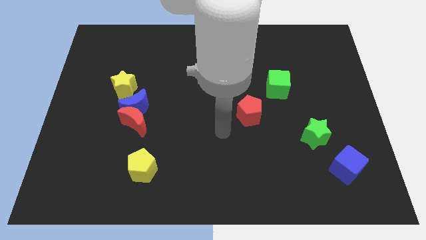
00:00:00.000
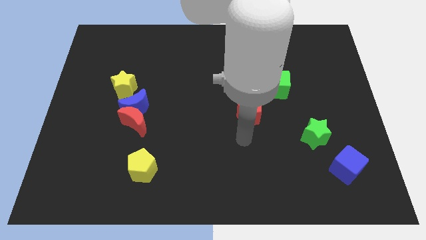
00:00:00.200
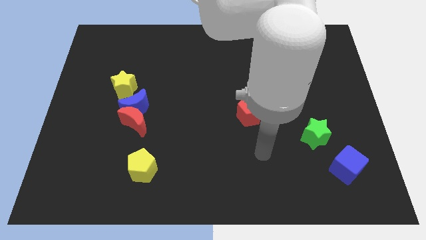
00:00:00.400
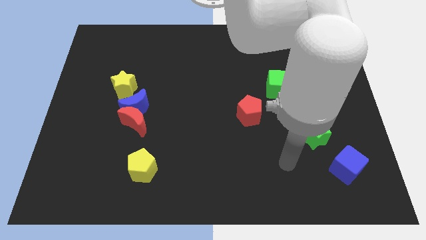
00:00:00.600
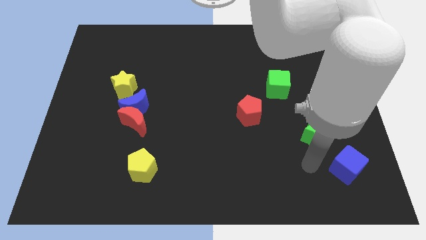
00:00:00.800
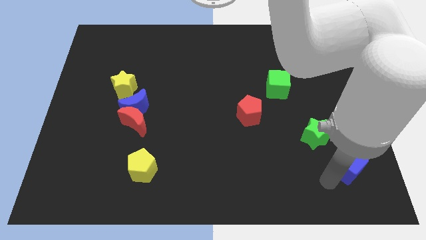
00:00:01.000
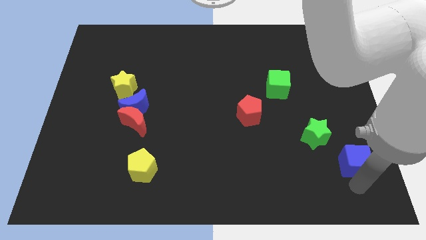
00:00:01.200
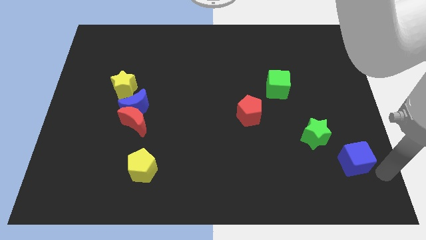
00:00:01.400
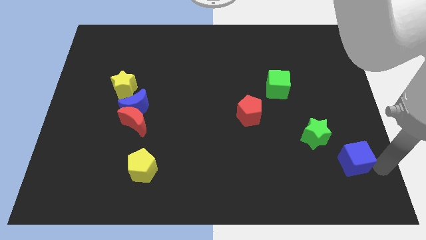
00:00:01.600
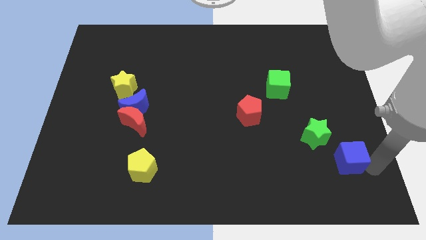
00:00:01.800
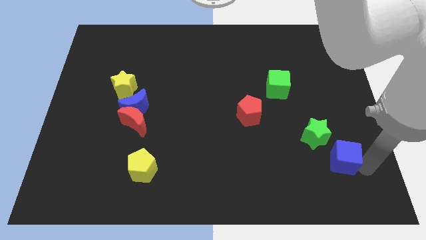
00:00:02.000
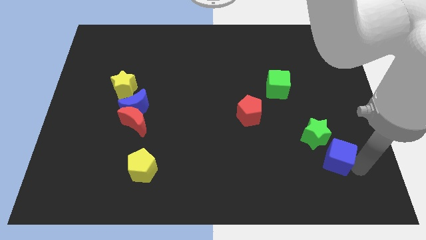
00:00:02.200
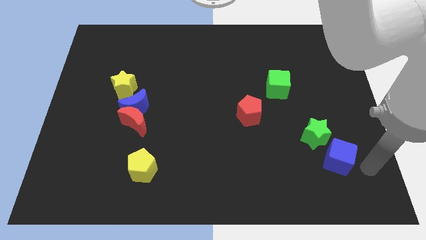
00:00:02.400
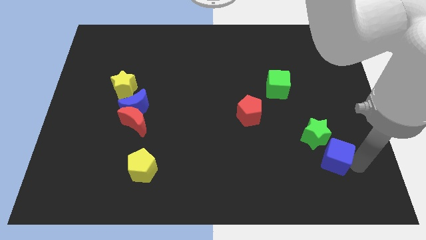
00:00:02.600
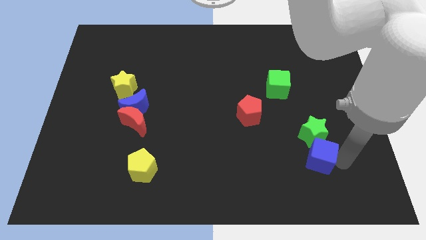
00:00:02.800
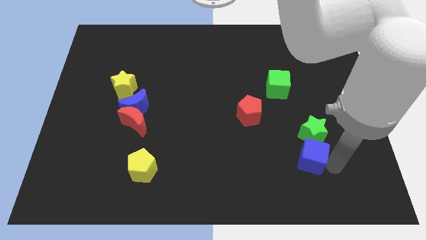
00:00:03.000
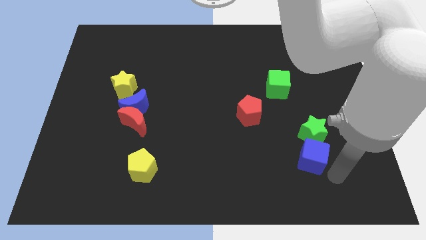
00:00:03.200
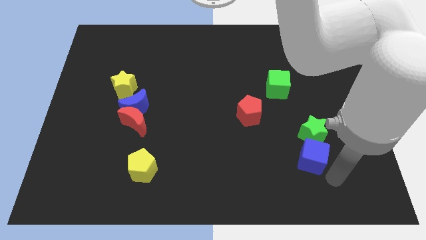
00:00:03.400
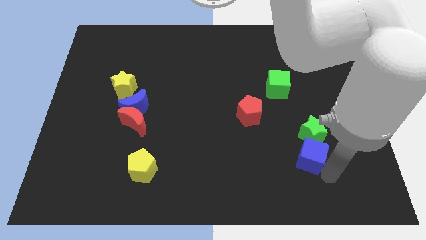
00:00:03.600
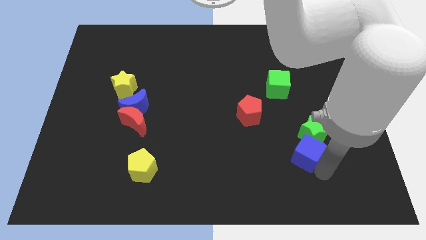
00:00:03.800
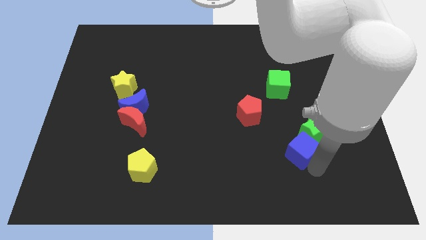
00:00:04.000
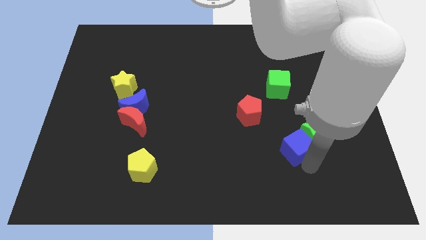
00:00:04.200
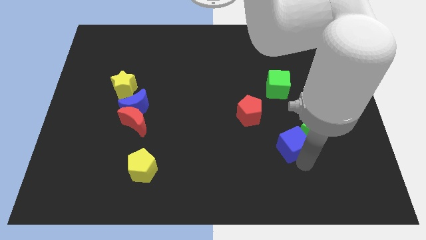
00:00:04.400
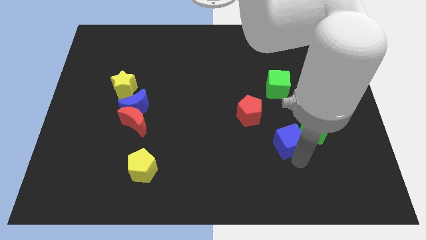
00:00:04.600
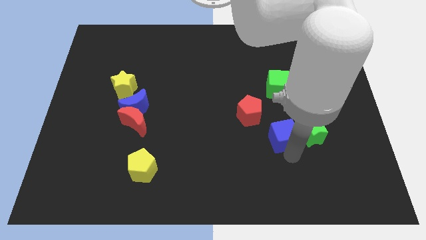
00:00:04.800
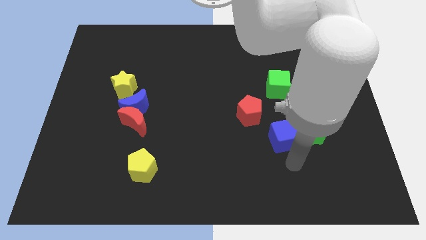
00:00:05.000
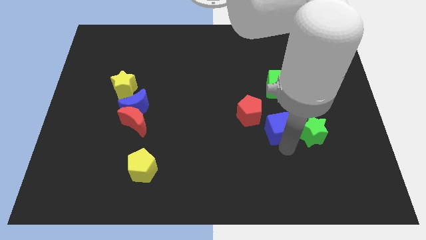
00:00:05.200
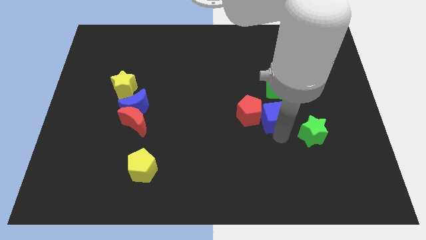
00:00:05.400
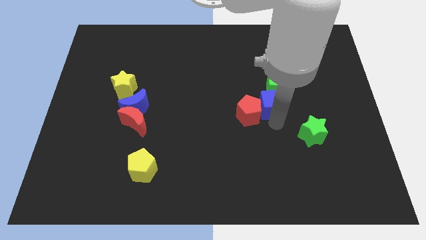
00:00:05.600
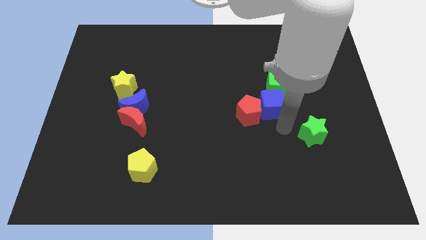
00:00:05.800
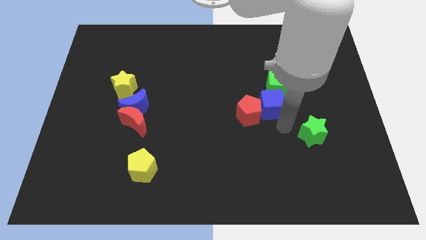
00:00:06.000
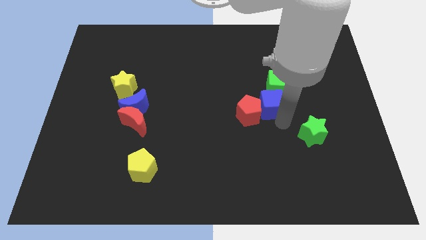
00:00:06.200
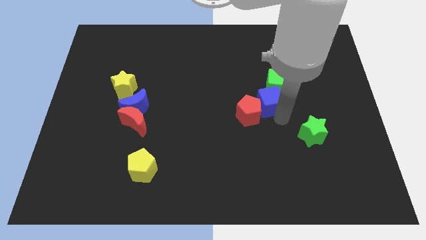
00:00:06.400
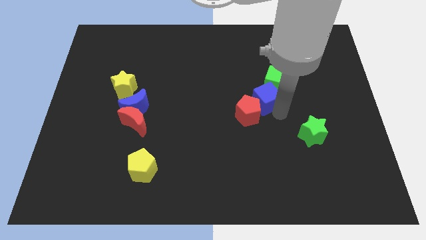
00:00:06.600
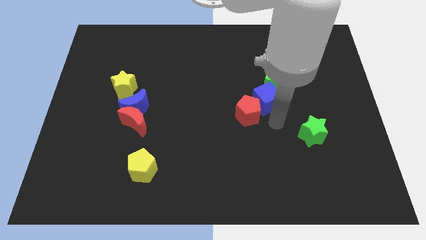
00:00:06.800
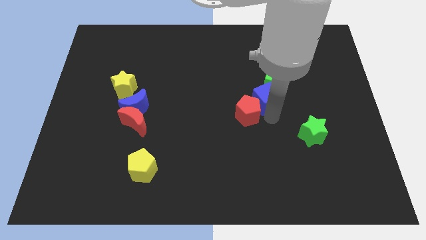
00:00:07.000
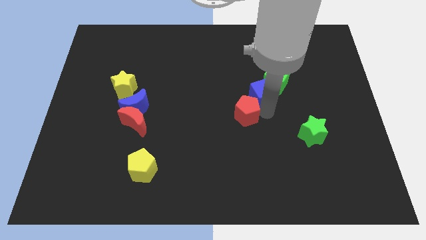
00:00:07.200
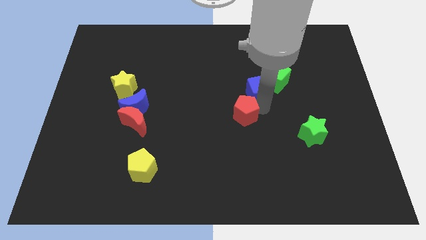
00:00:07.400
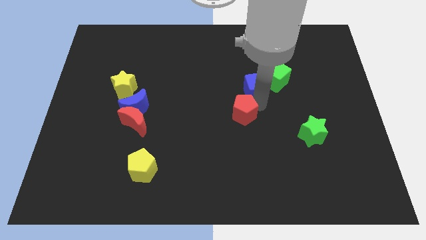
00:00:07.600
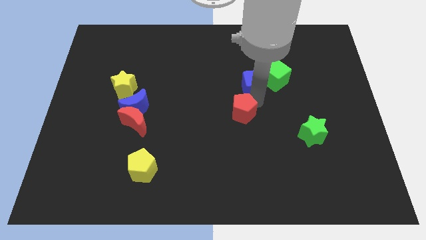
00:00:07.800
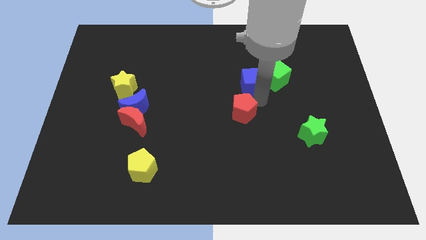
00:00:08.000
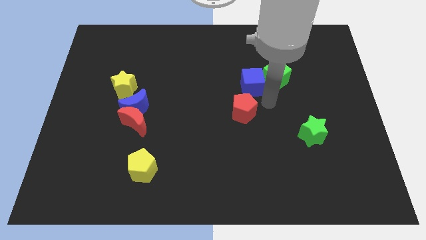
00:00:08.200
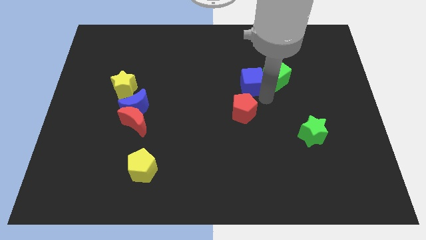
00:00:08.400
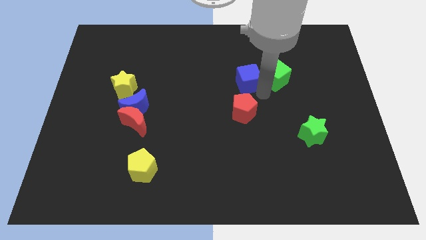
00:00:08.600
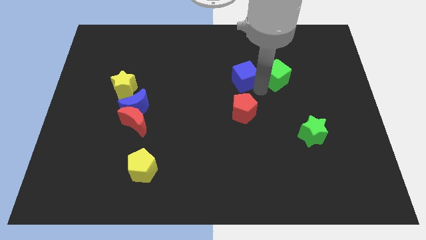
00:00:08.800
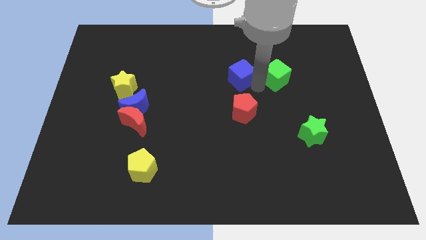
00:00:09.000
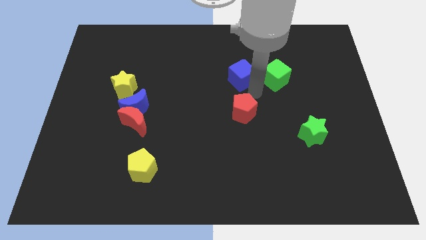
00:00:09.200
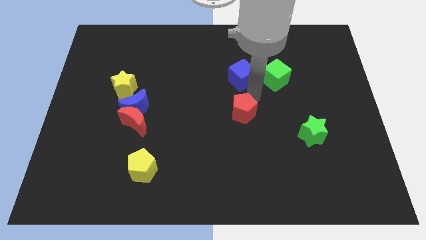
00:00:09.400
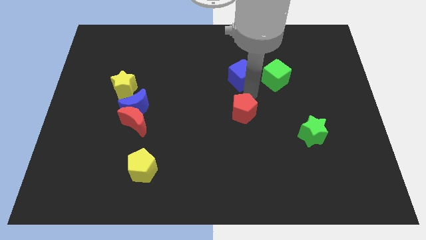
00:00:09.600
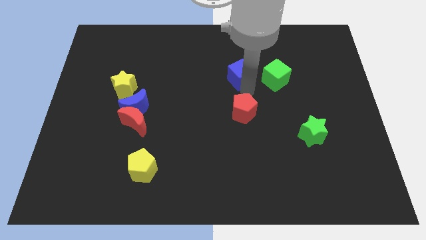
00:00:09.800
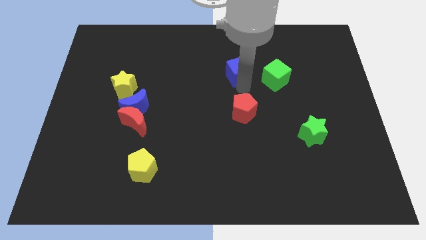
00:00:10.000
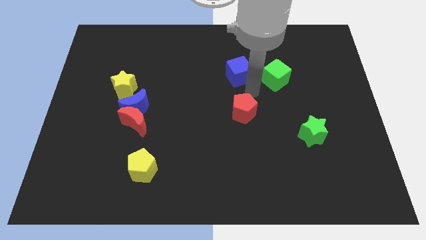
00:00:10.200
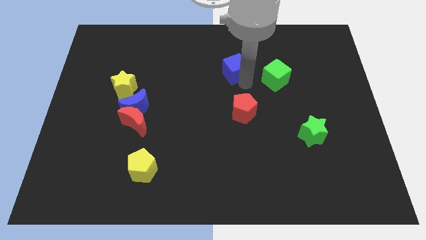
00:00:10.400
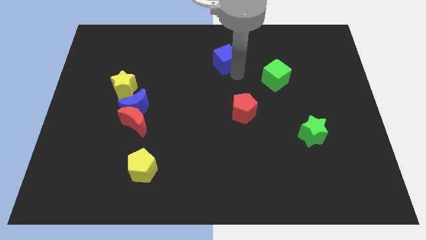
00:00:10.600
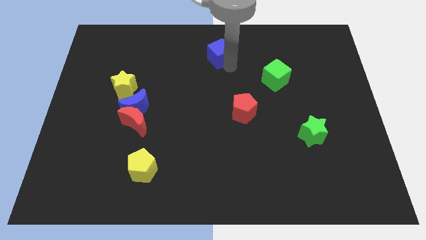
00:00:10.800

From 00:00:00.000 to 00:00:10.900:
put the blue cube to the towards your base
